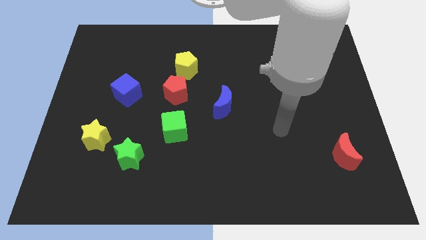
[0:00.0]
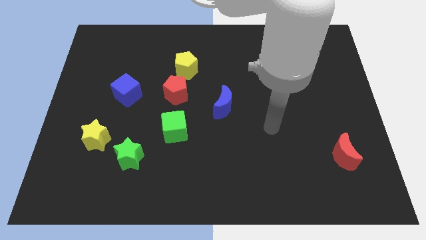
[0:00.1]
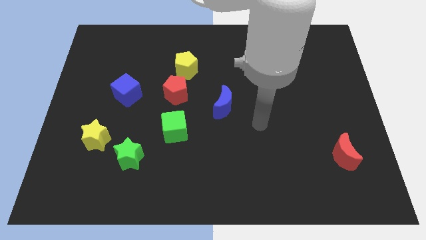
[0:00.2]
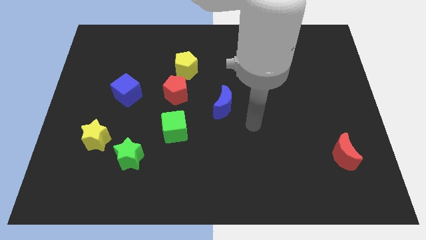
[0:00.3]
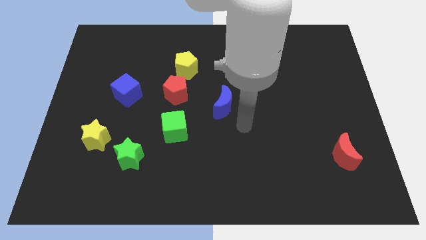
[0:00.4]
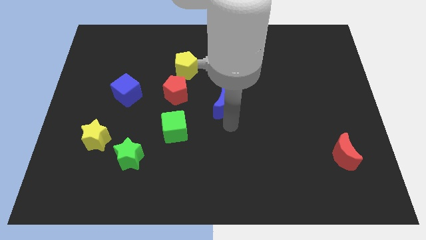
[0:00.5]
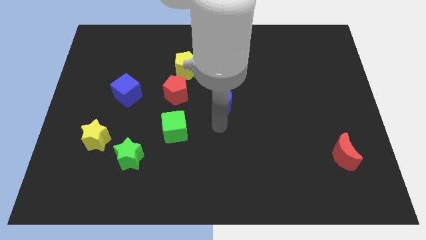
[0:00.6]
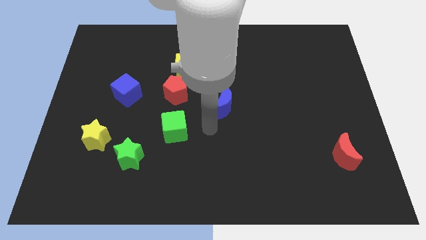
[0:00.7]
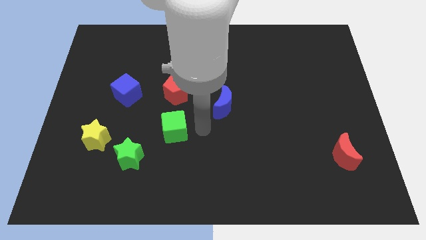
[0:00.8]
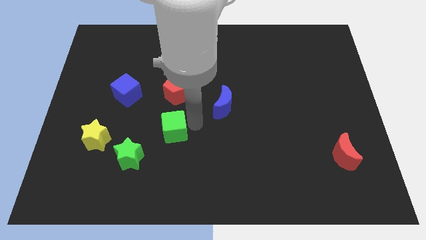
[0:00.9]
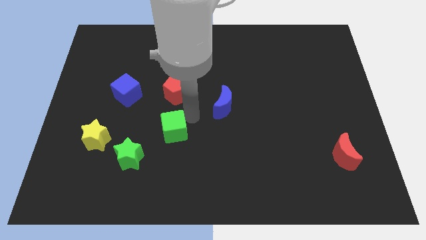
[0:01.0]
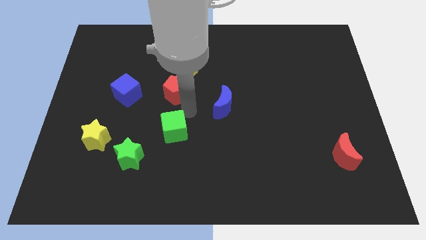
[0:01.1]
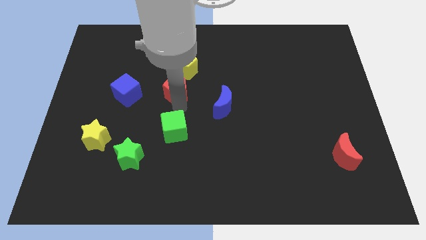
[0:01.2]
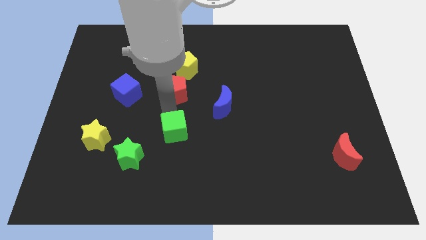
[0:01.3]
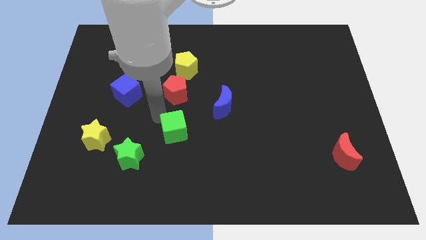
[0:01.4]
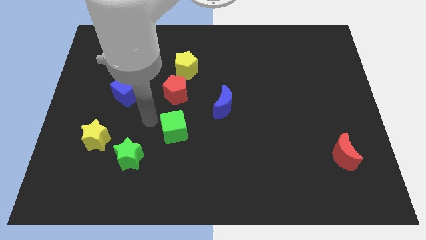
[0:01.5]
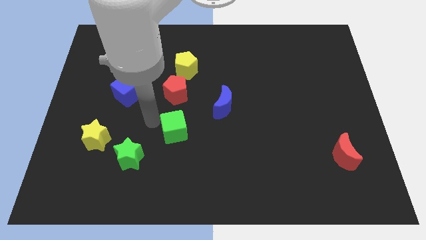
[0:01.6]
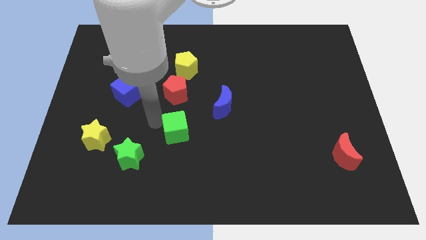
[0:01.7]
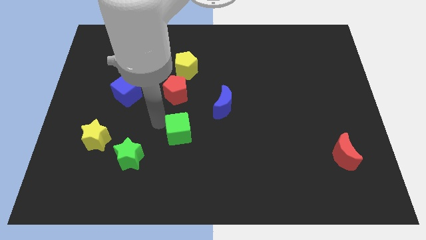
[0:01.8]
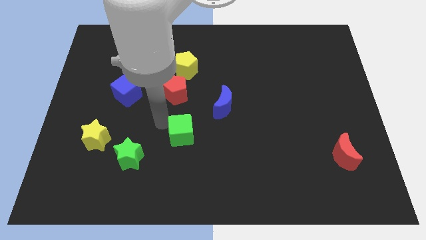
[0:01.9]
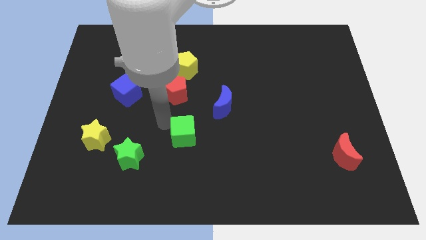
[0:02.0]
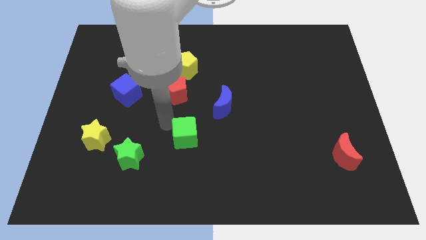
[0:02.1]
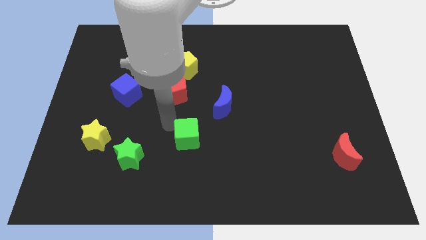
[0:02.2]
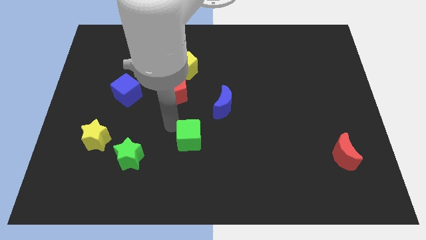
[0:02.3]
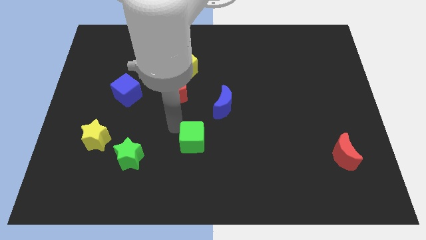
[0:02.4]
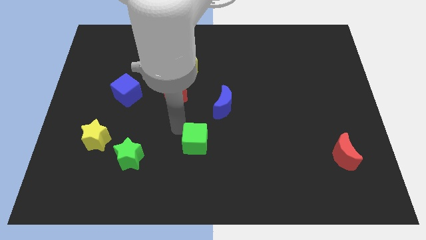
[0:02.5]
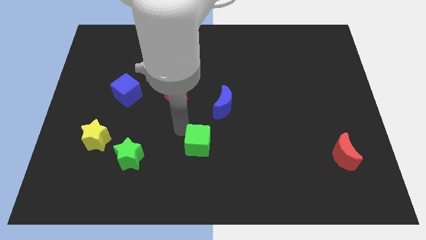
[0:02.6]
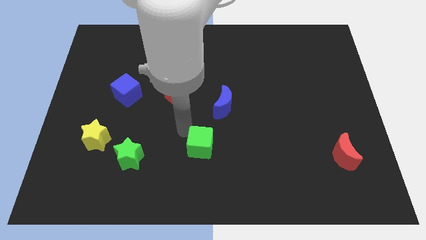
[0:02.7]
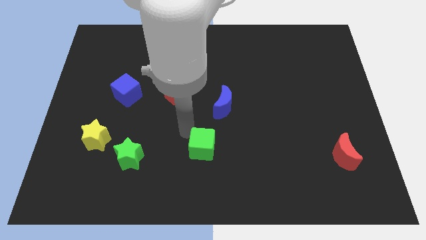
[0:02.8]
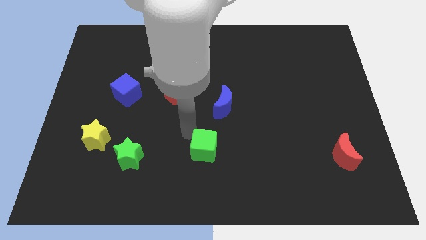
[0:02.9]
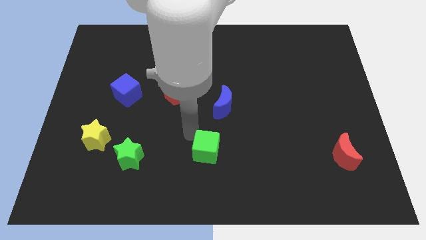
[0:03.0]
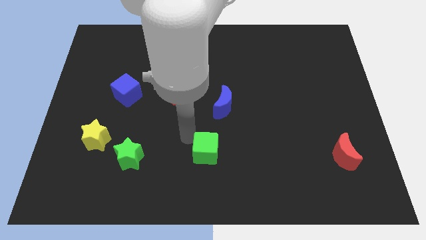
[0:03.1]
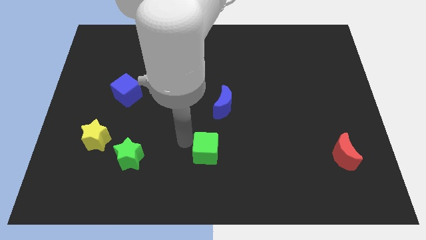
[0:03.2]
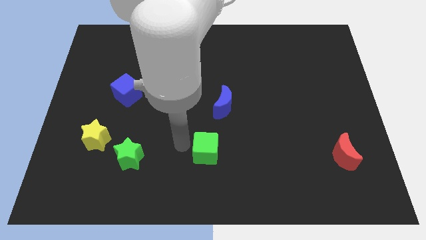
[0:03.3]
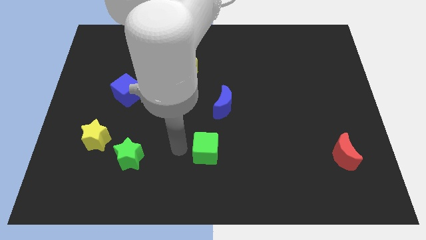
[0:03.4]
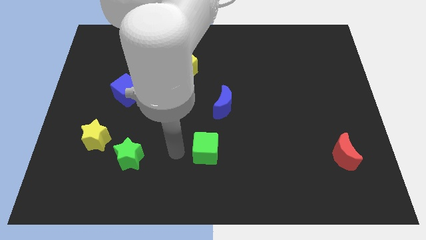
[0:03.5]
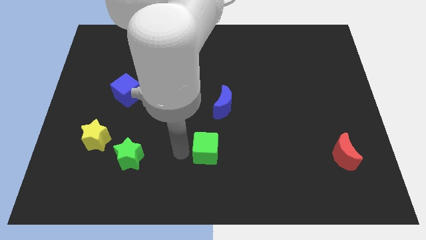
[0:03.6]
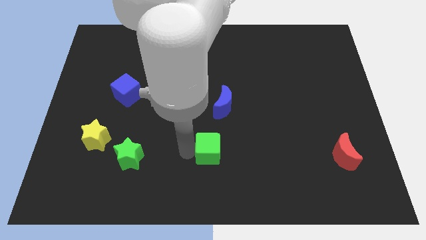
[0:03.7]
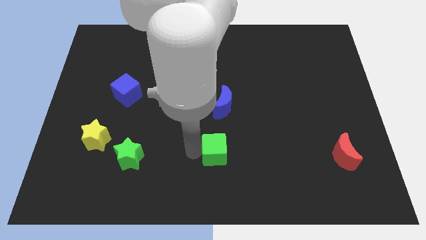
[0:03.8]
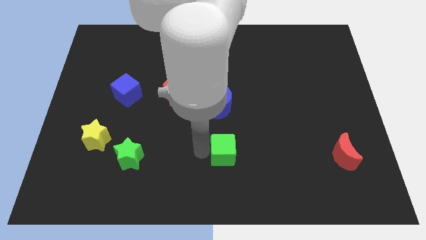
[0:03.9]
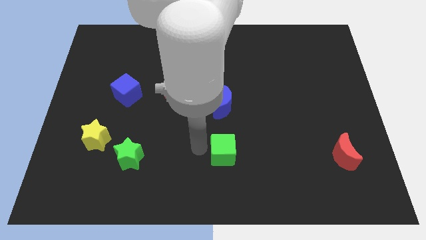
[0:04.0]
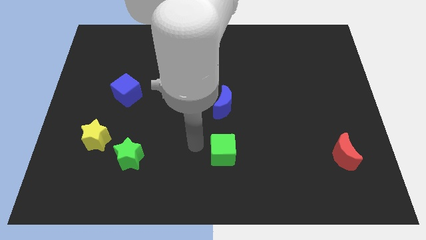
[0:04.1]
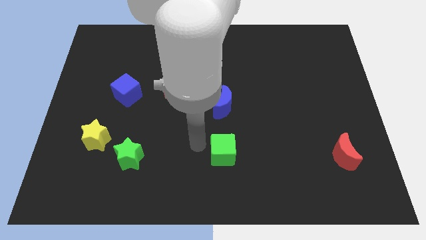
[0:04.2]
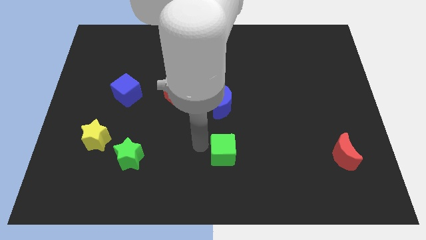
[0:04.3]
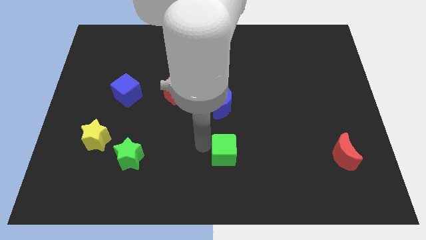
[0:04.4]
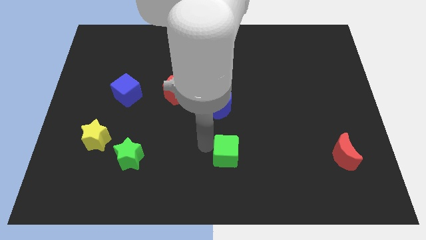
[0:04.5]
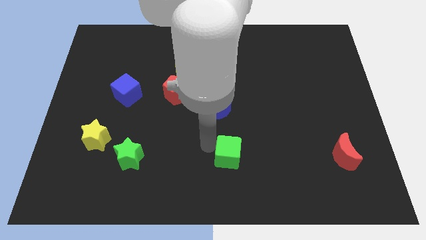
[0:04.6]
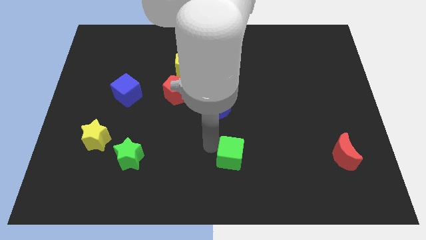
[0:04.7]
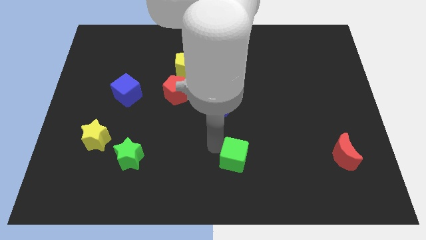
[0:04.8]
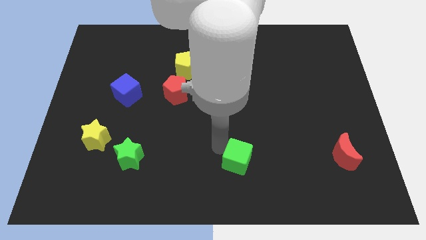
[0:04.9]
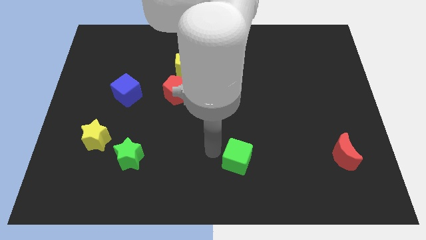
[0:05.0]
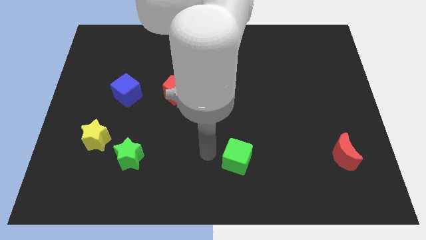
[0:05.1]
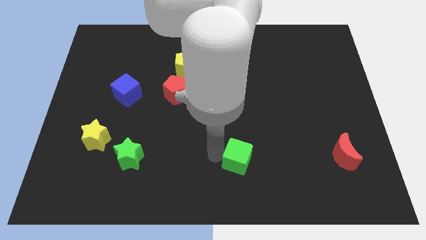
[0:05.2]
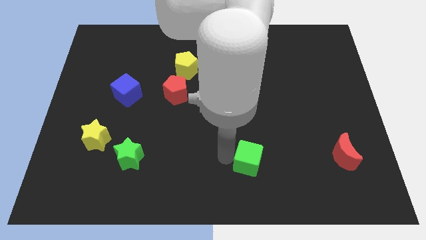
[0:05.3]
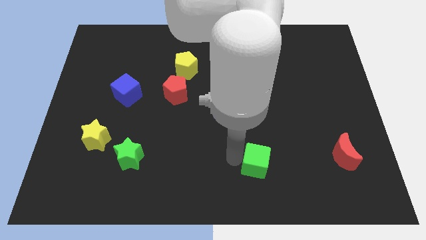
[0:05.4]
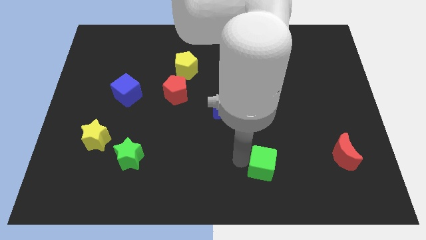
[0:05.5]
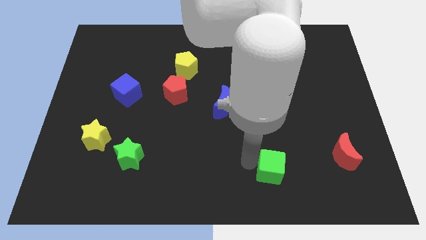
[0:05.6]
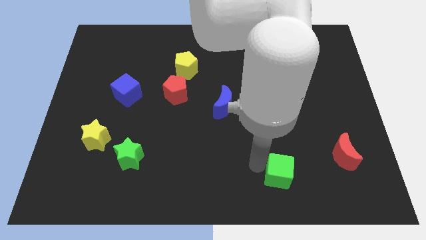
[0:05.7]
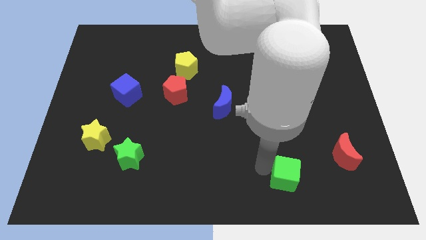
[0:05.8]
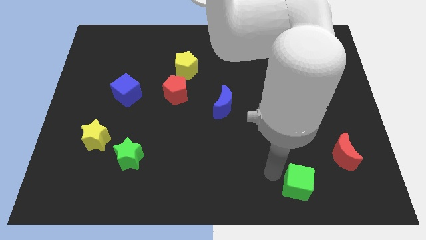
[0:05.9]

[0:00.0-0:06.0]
slide the green cube to the bottom left side of the red moon

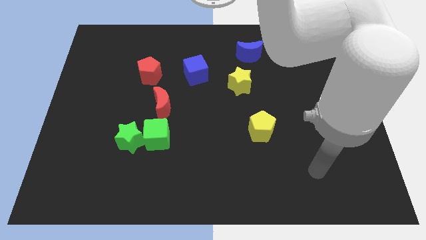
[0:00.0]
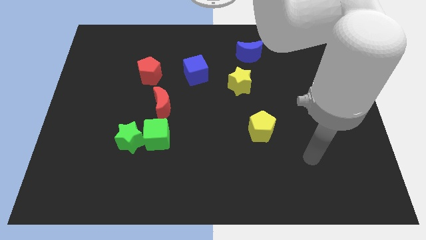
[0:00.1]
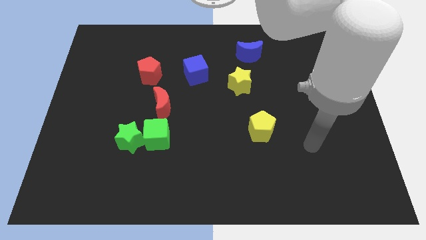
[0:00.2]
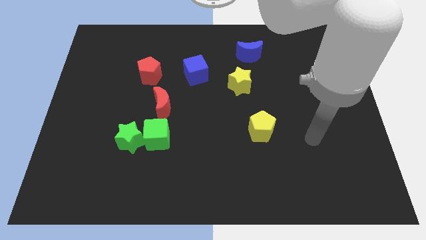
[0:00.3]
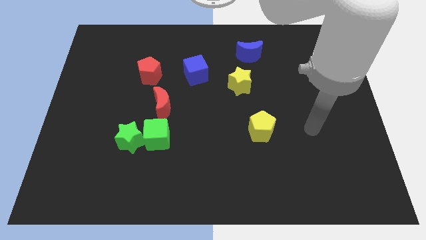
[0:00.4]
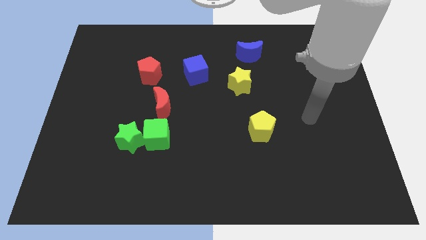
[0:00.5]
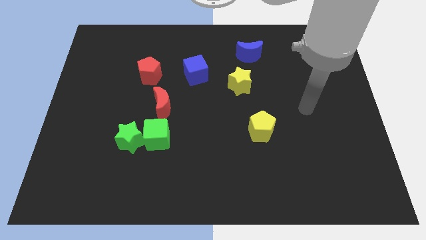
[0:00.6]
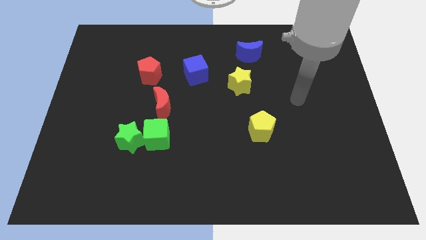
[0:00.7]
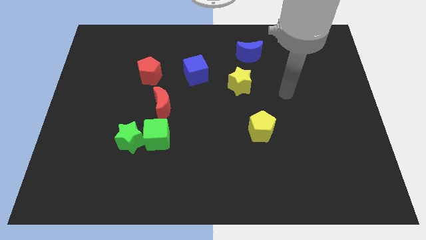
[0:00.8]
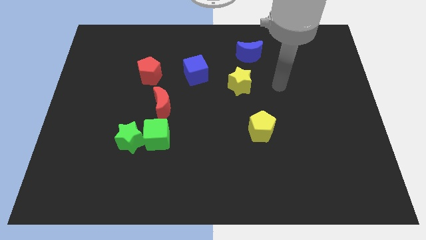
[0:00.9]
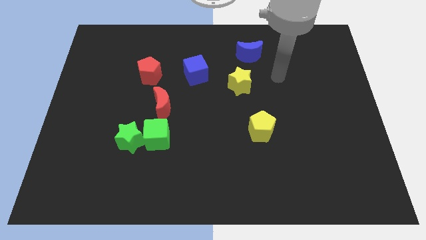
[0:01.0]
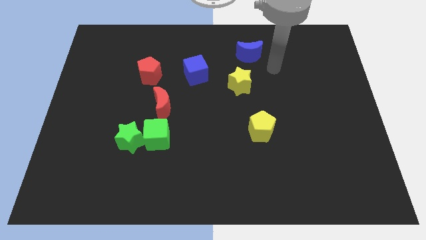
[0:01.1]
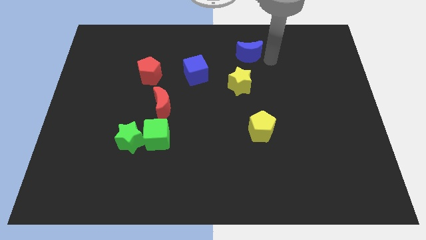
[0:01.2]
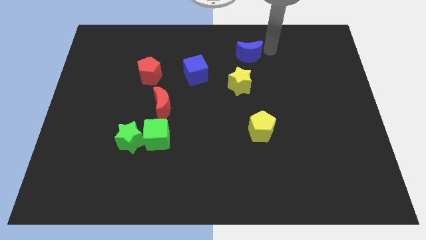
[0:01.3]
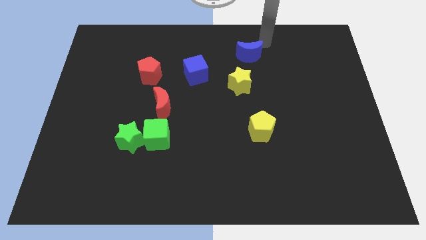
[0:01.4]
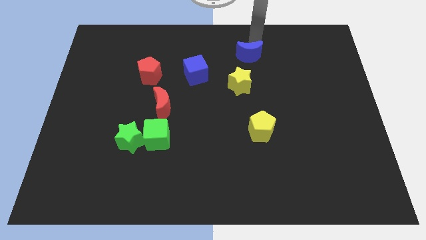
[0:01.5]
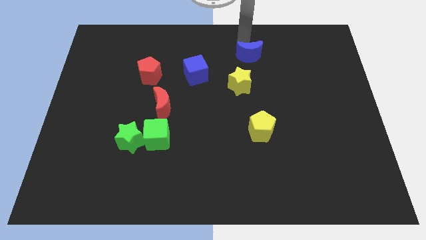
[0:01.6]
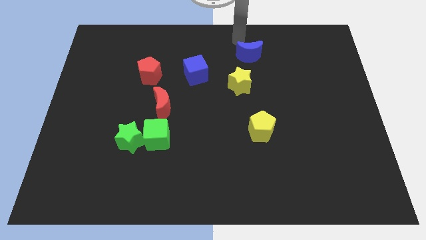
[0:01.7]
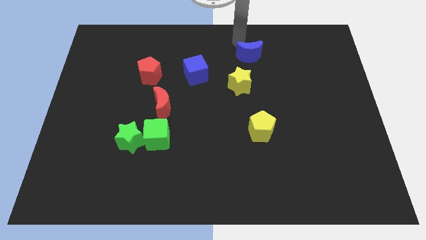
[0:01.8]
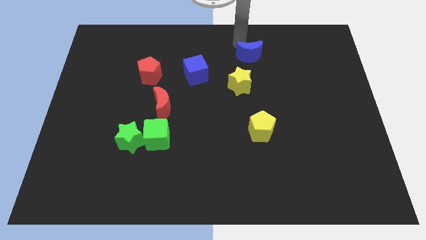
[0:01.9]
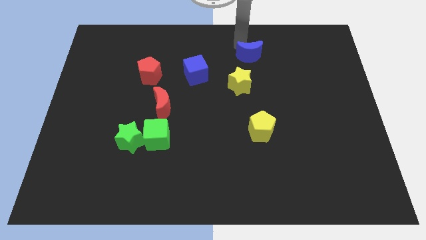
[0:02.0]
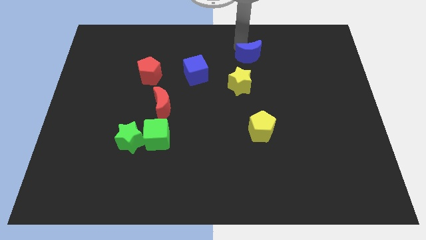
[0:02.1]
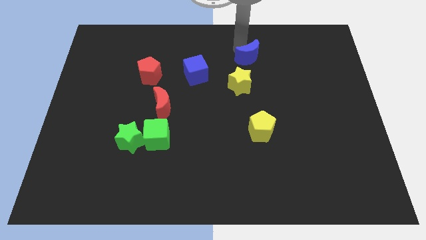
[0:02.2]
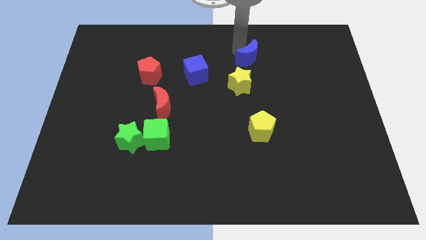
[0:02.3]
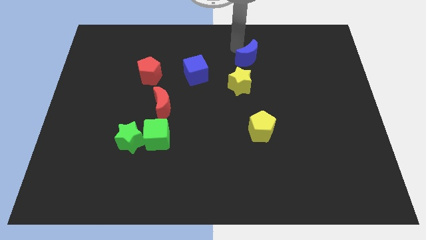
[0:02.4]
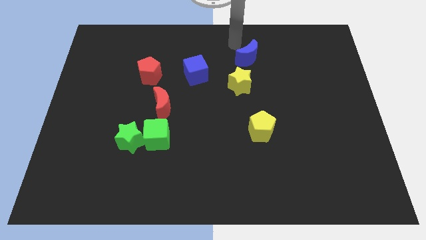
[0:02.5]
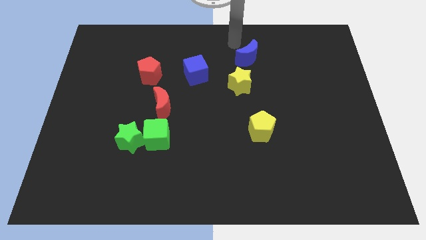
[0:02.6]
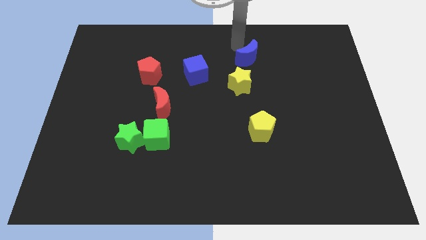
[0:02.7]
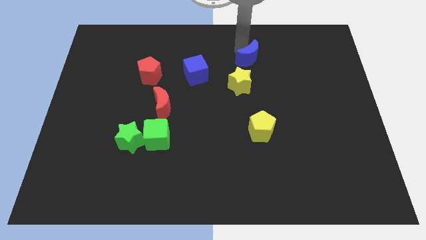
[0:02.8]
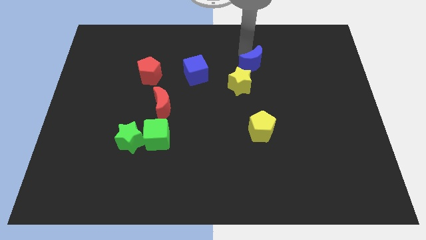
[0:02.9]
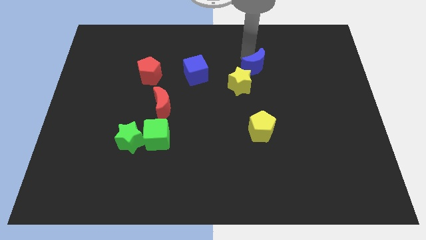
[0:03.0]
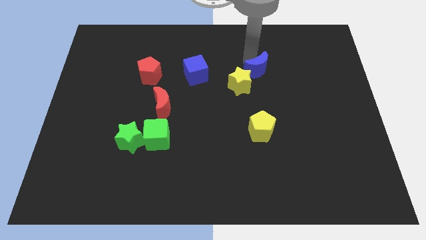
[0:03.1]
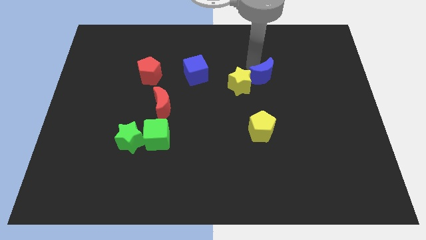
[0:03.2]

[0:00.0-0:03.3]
slide the blue moon just right of the yellow star
